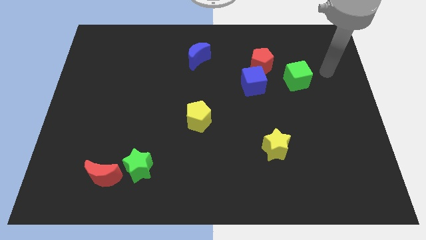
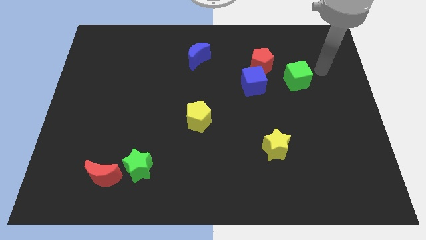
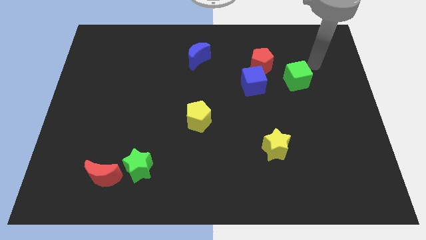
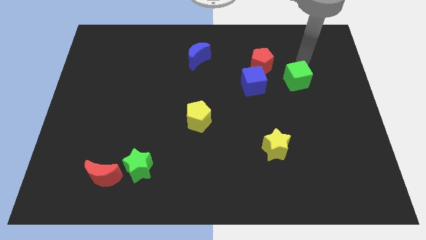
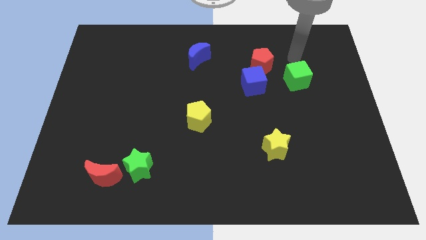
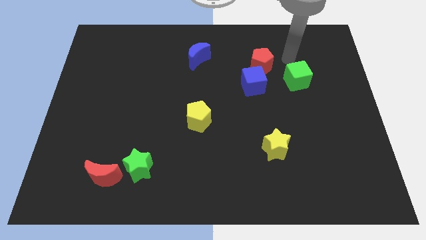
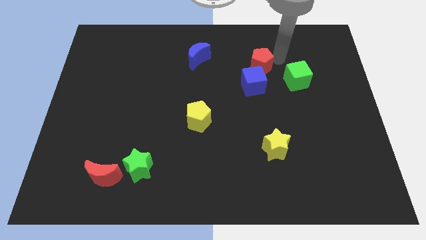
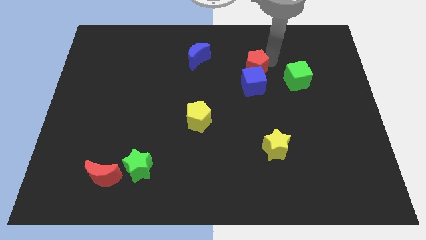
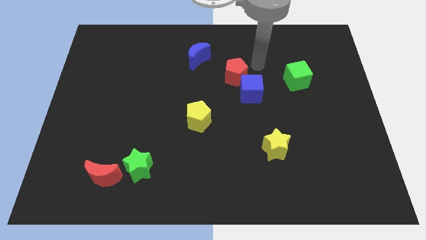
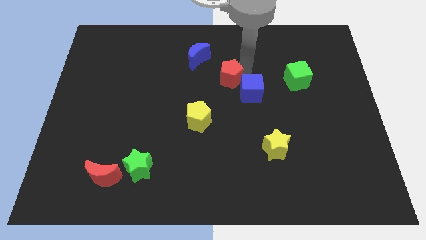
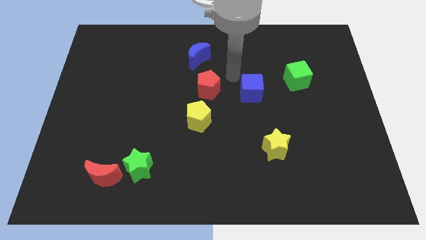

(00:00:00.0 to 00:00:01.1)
separate the blue cube from the red pentagon

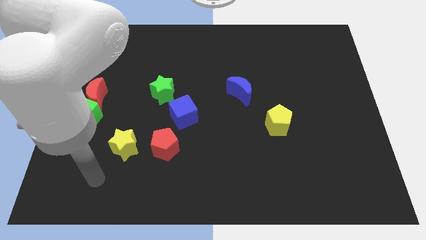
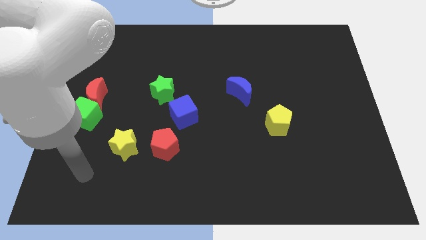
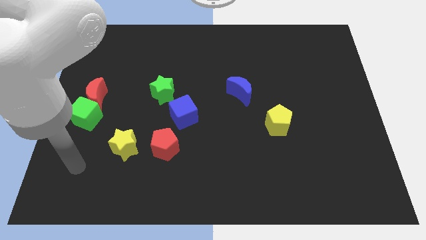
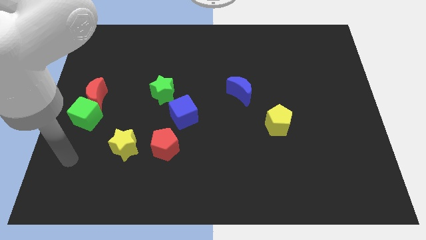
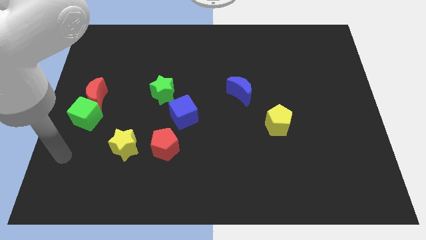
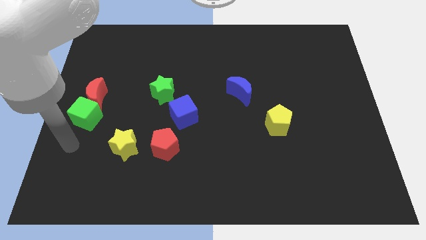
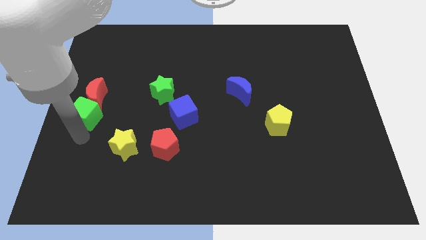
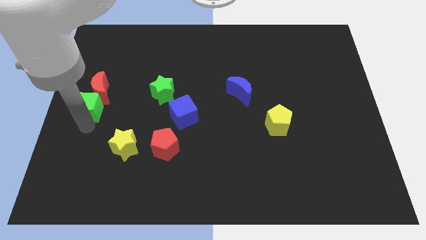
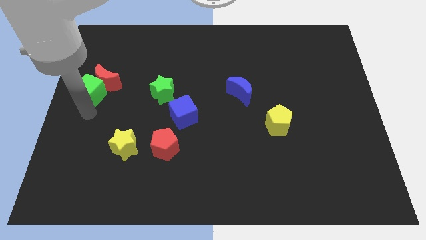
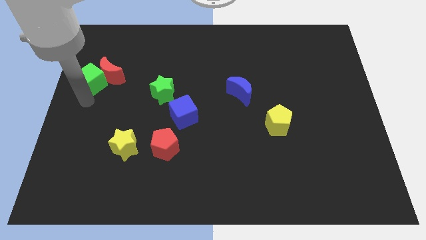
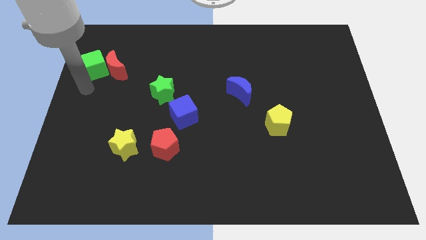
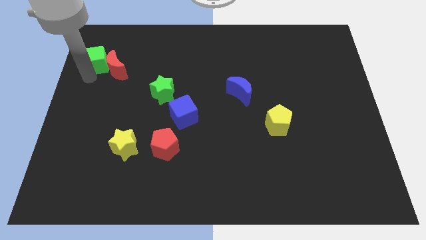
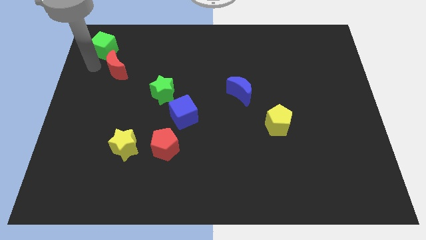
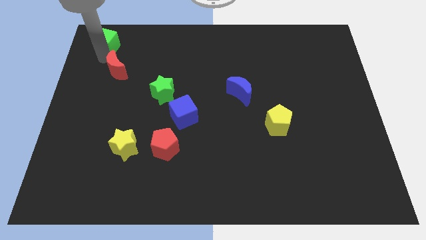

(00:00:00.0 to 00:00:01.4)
pull the red moon apart from the green cube

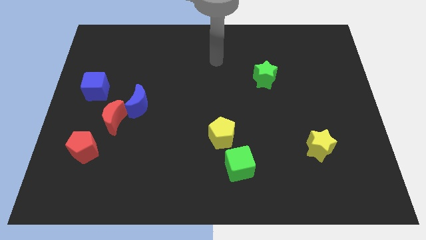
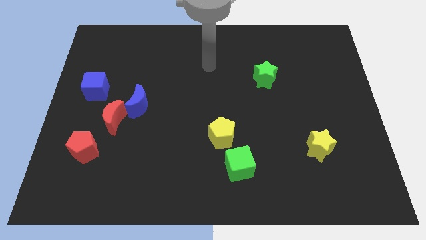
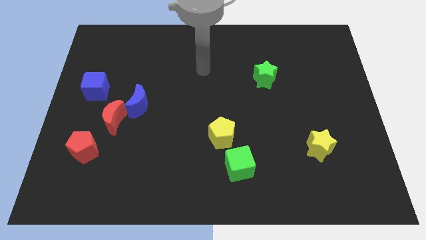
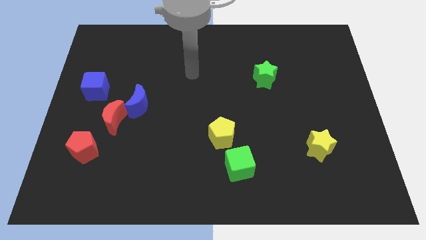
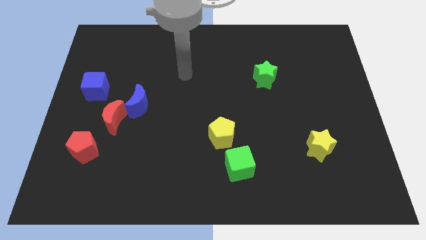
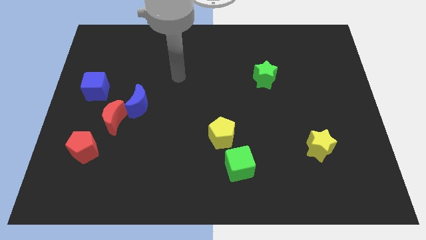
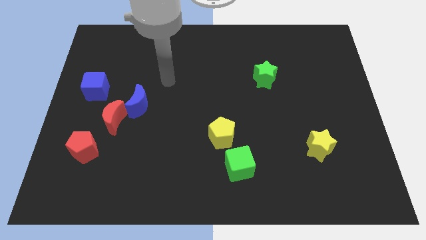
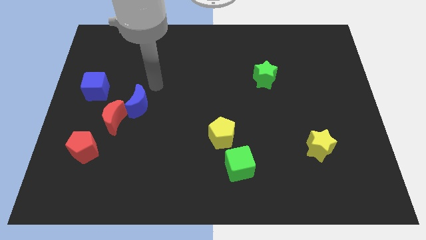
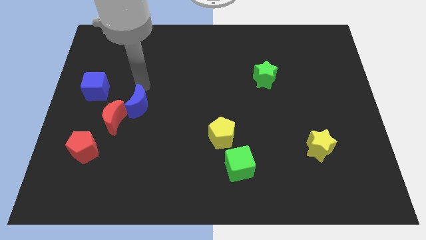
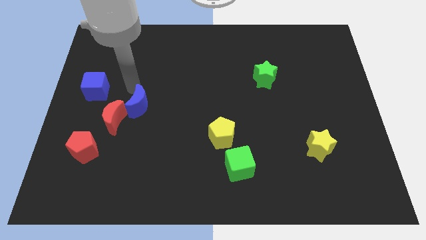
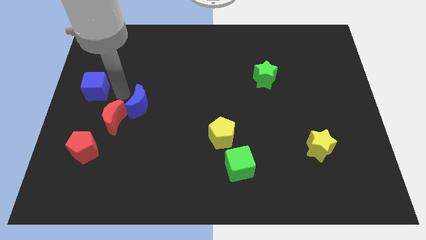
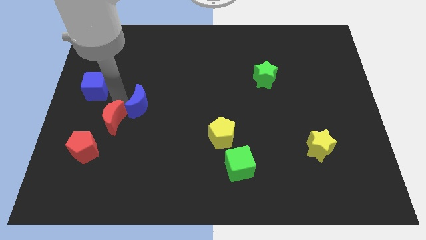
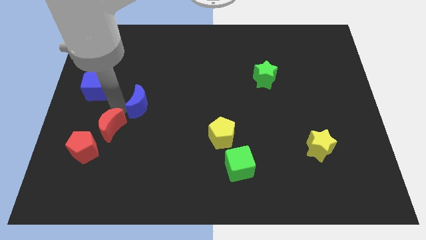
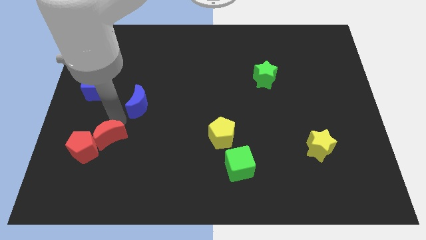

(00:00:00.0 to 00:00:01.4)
move the blue moon away from the red moon

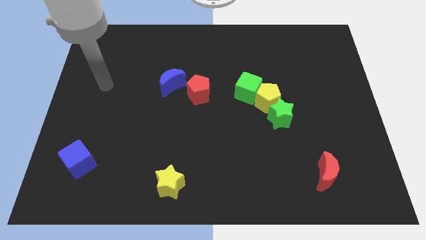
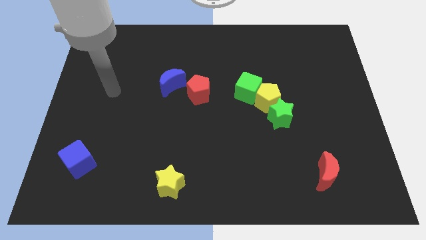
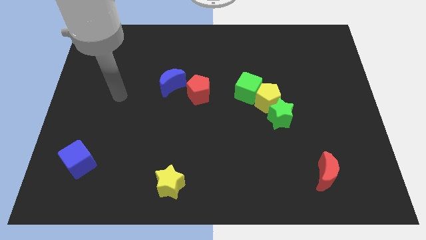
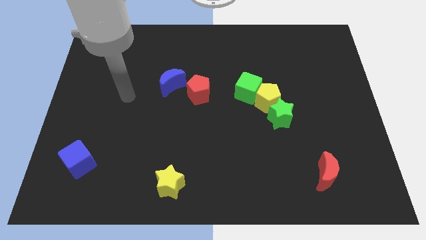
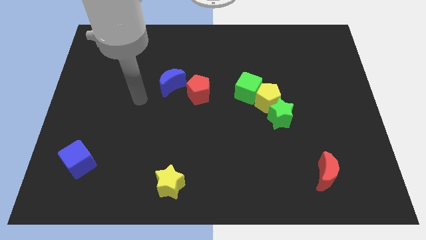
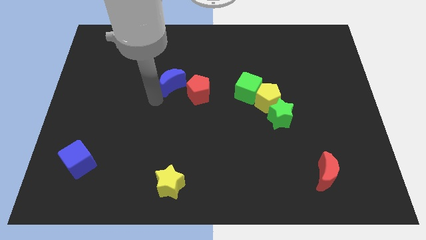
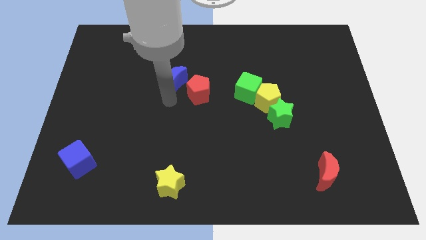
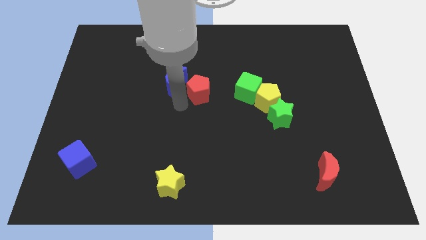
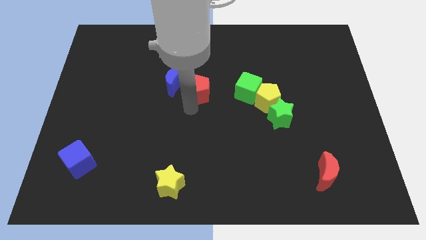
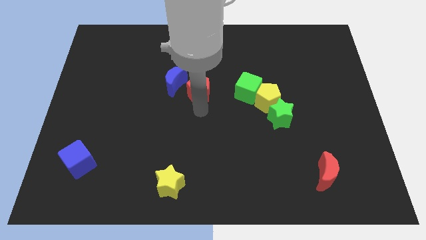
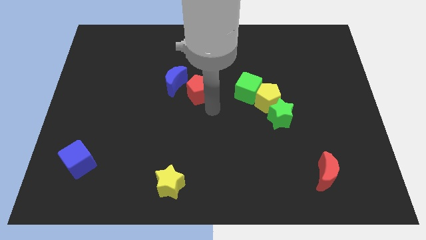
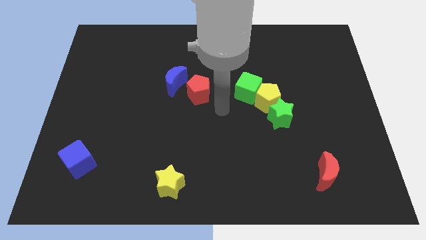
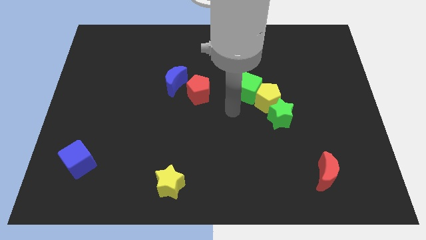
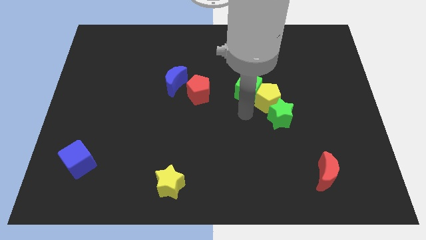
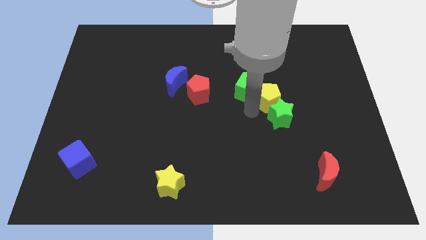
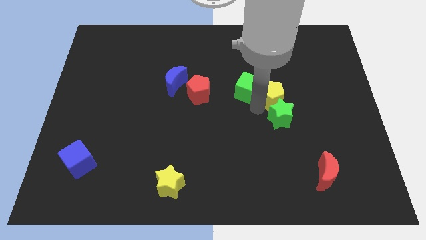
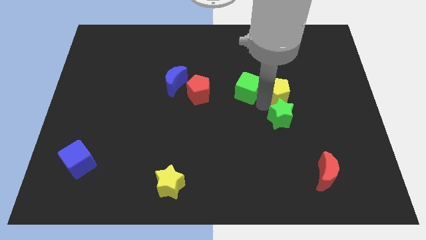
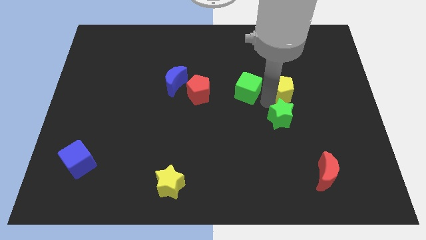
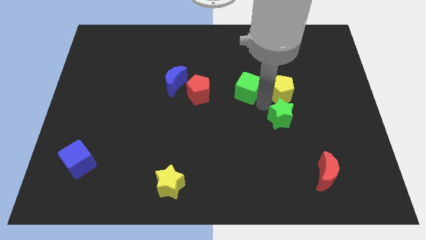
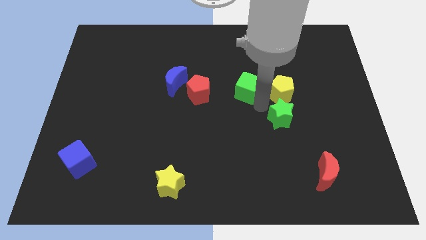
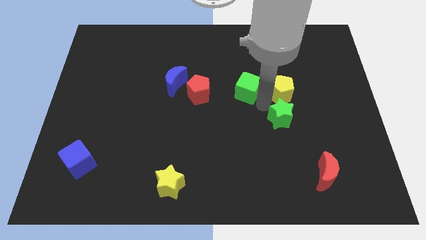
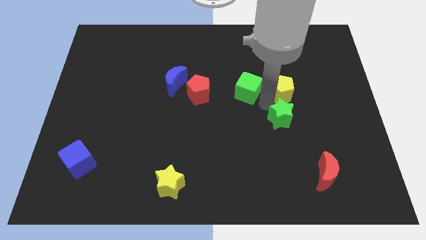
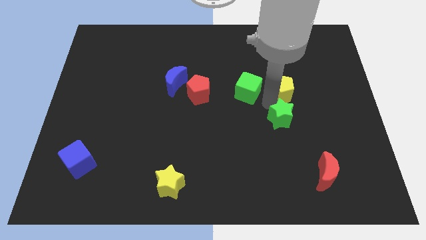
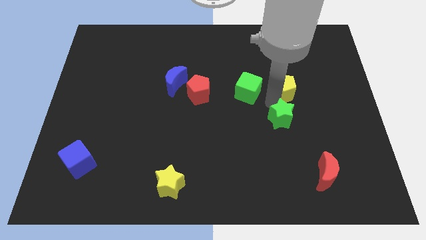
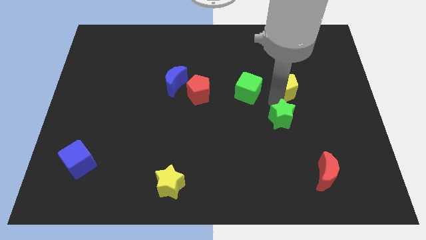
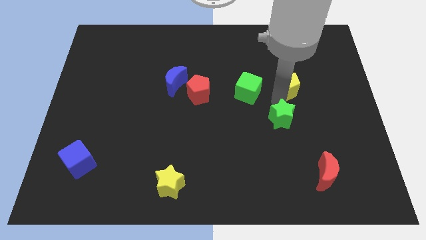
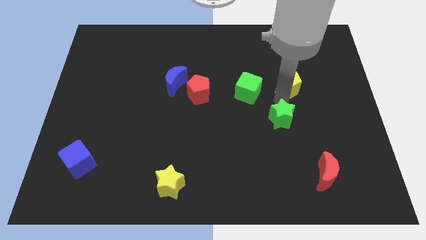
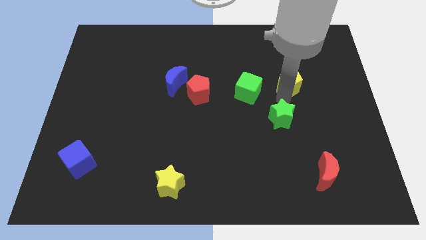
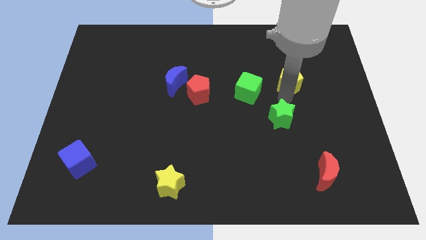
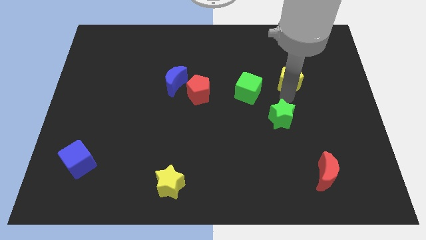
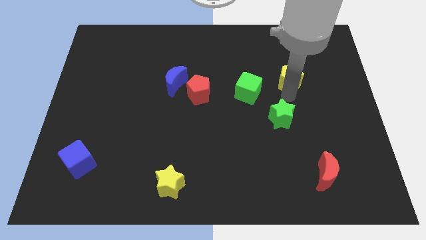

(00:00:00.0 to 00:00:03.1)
separate the yellow pentagon from the green star and green cube

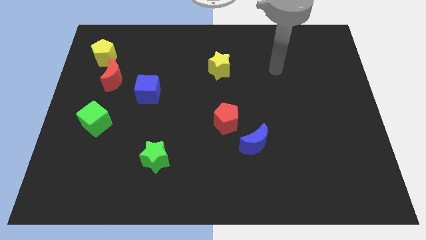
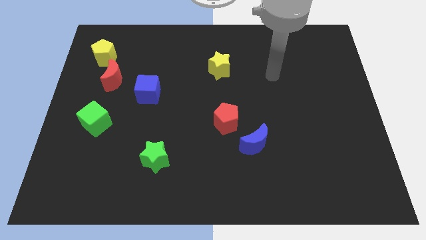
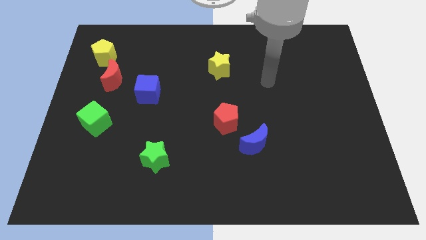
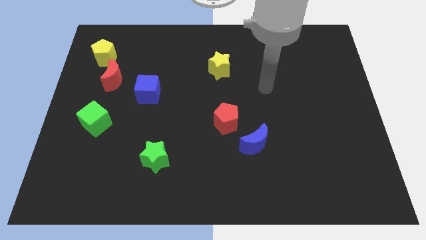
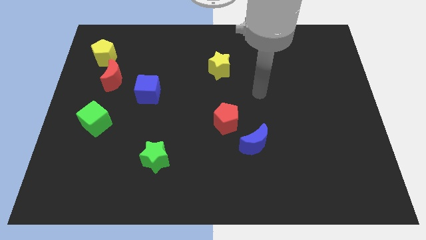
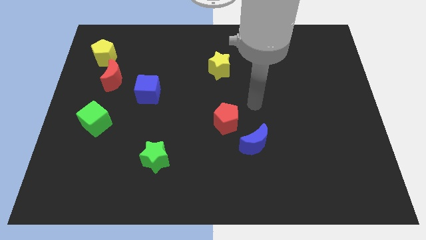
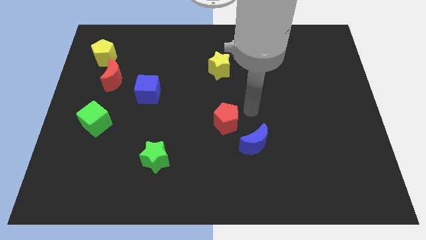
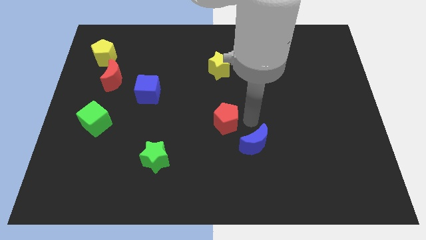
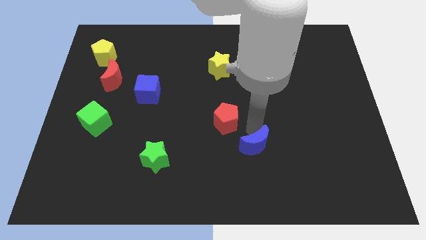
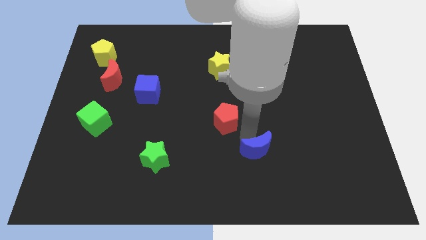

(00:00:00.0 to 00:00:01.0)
separate the red pentagon from the blue moon

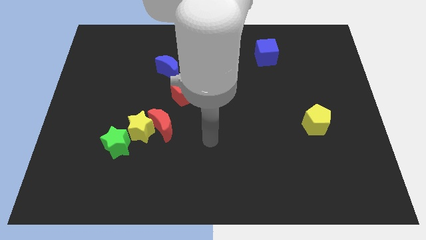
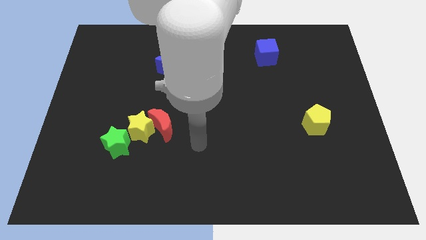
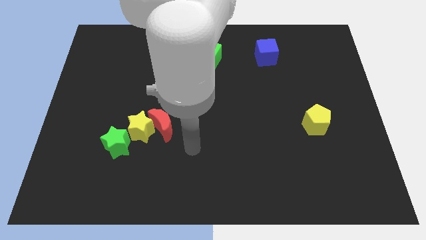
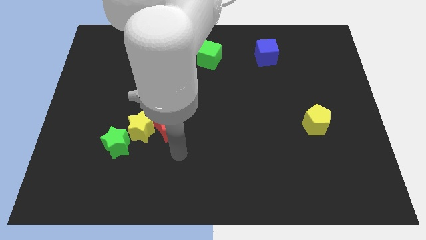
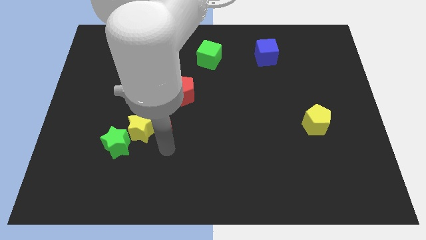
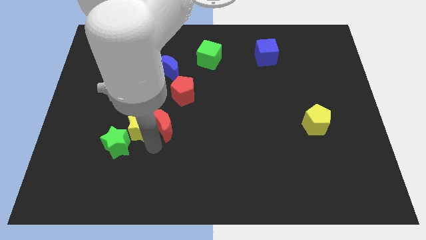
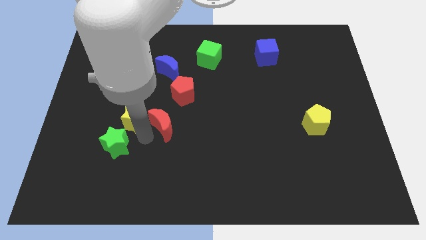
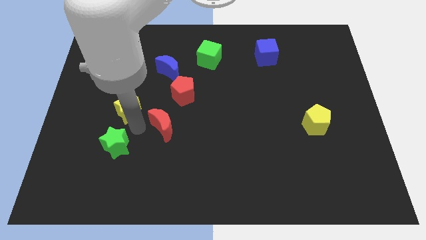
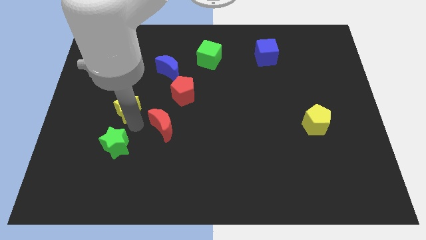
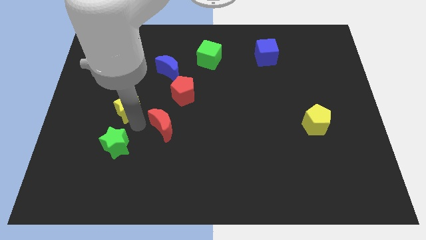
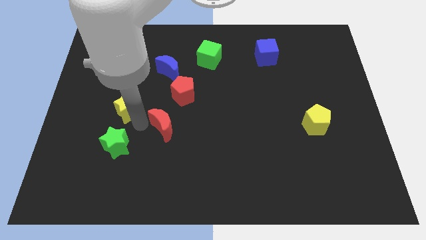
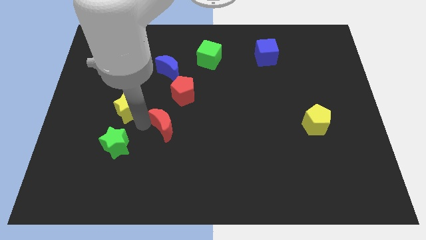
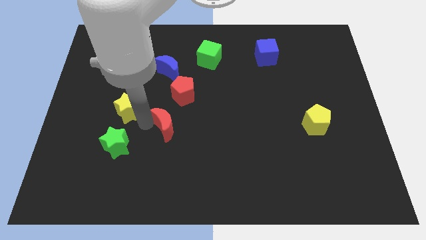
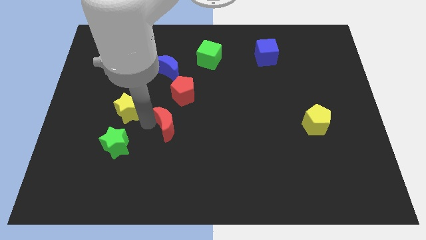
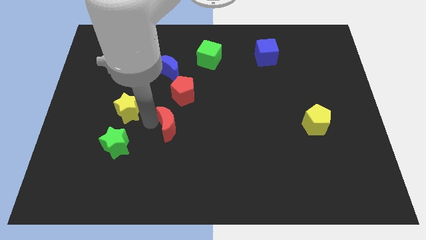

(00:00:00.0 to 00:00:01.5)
separate the red moon from the yellow star
